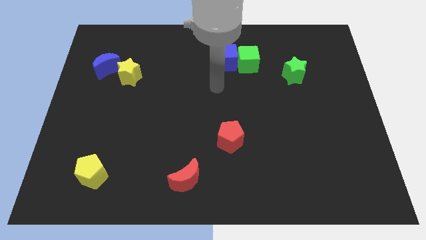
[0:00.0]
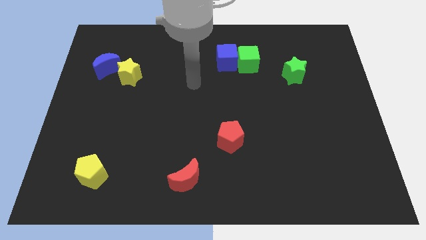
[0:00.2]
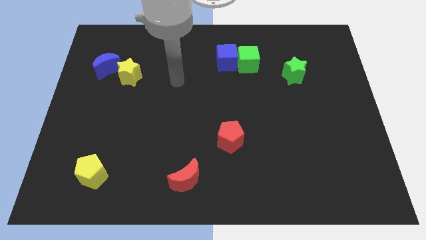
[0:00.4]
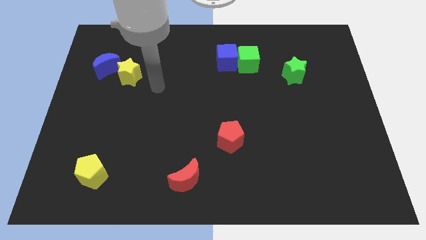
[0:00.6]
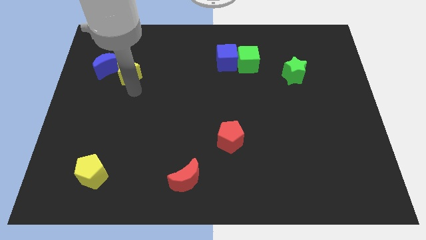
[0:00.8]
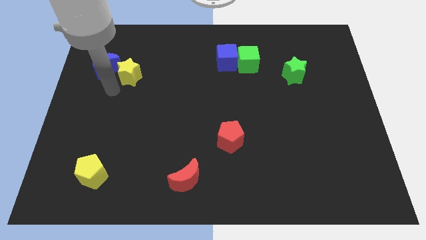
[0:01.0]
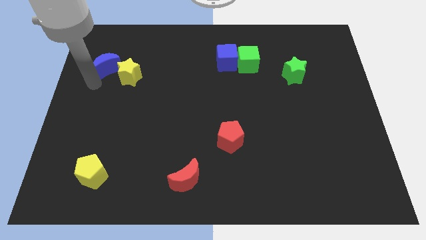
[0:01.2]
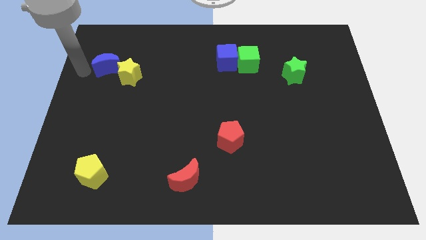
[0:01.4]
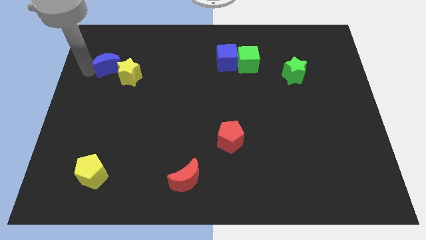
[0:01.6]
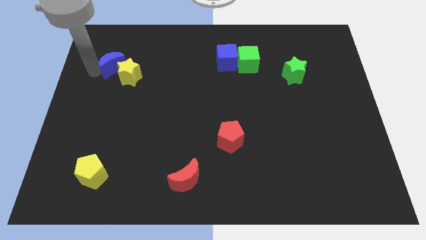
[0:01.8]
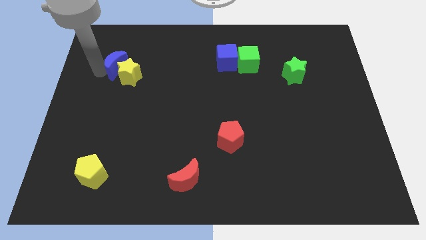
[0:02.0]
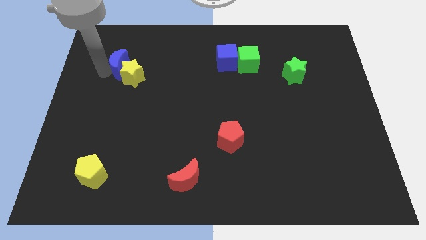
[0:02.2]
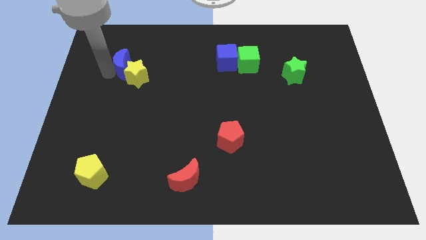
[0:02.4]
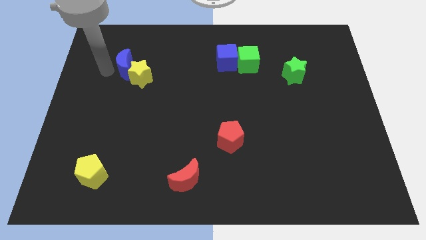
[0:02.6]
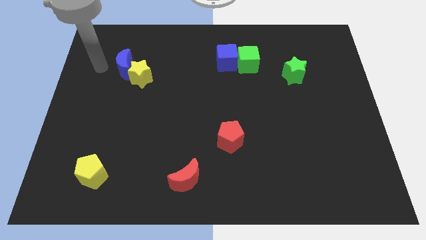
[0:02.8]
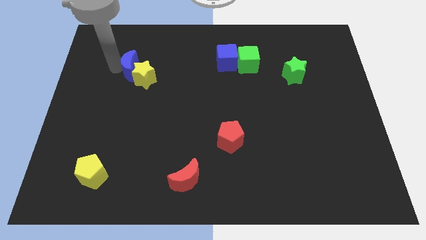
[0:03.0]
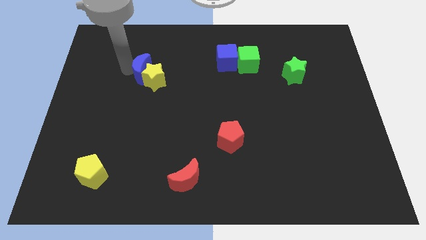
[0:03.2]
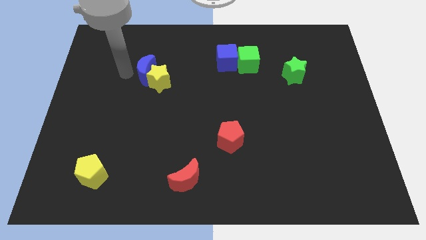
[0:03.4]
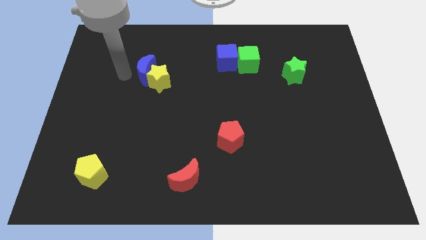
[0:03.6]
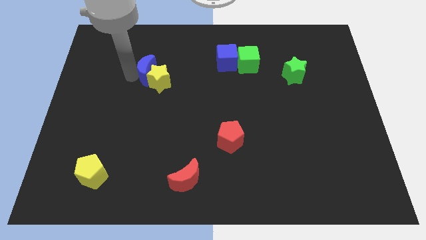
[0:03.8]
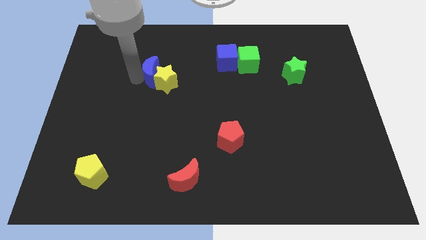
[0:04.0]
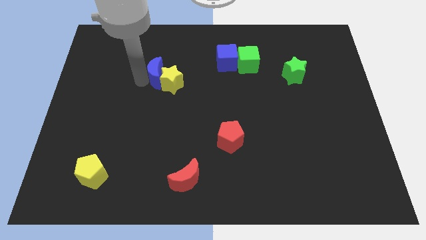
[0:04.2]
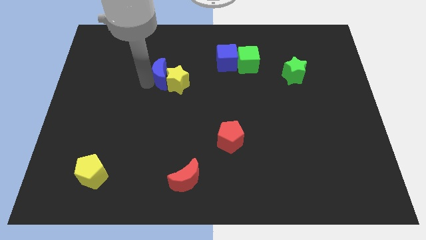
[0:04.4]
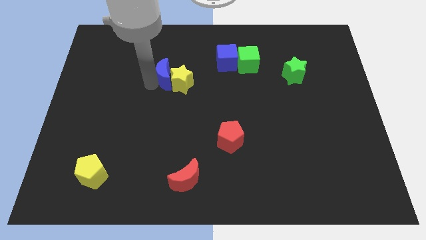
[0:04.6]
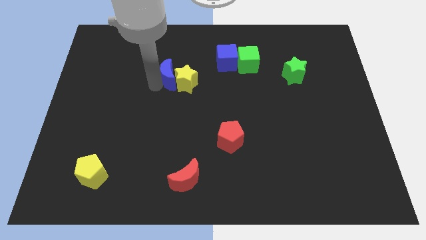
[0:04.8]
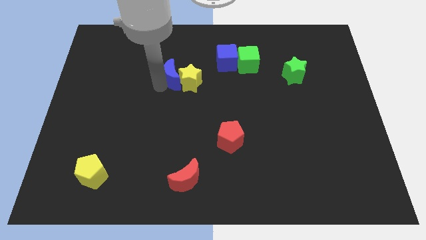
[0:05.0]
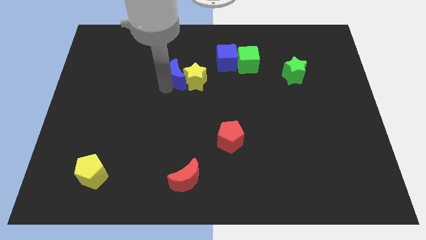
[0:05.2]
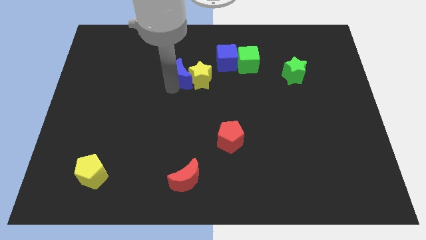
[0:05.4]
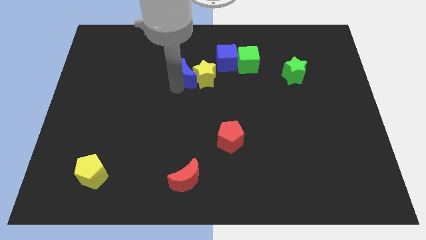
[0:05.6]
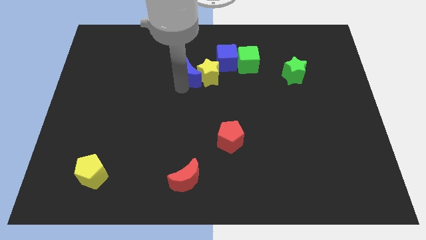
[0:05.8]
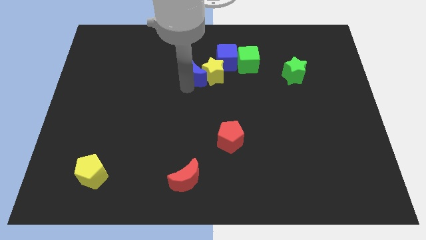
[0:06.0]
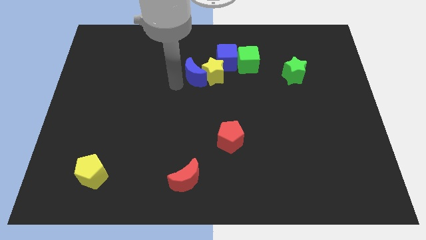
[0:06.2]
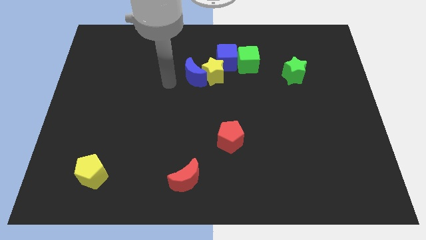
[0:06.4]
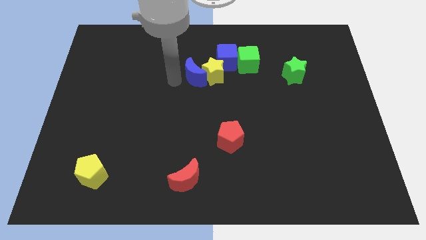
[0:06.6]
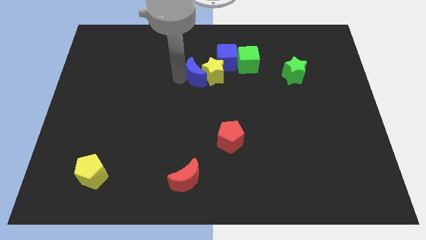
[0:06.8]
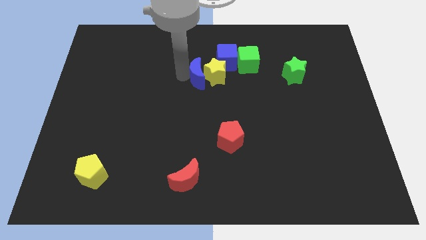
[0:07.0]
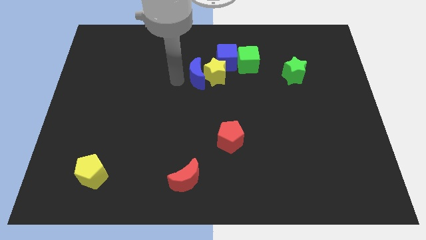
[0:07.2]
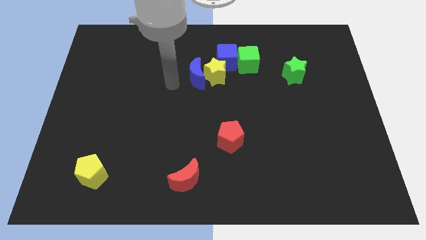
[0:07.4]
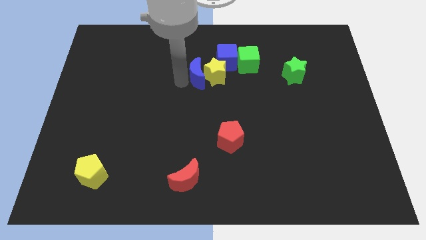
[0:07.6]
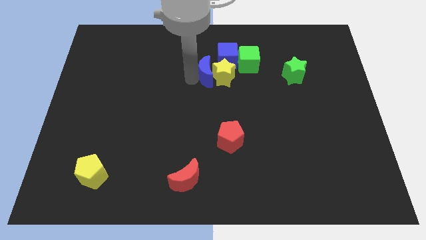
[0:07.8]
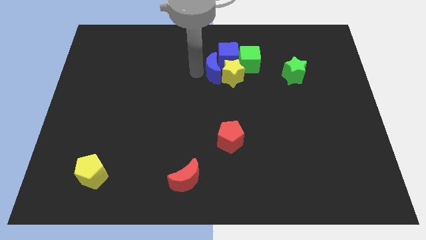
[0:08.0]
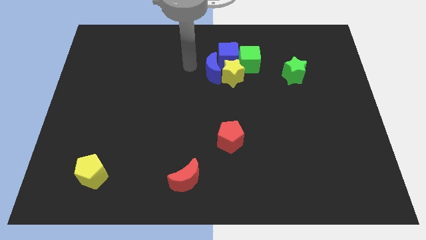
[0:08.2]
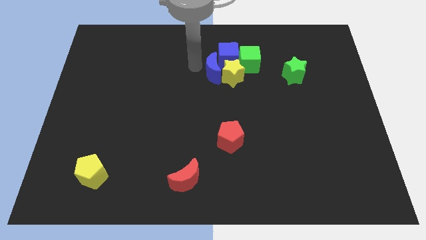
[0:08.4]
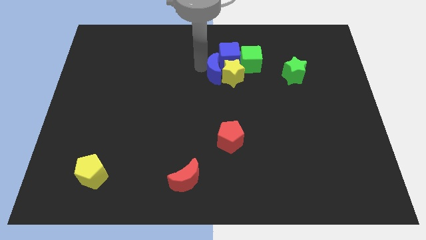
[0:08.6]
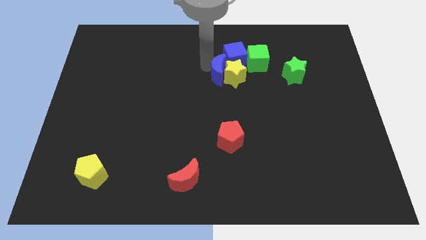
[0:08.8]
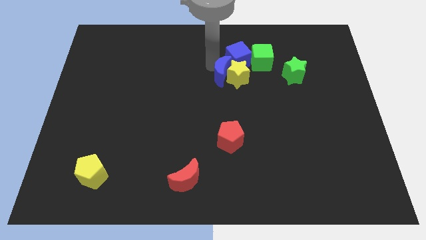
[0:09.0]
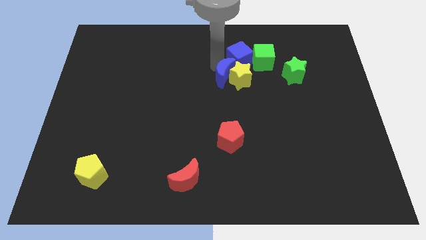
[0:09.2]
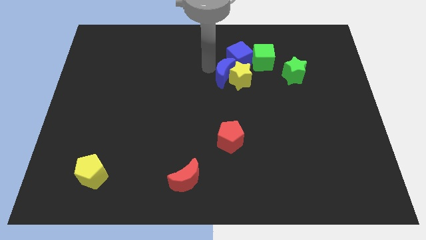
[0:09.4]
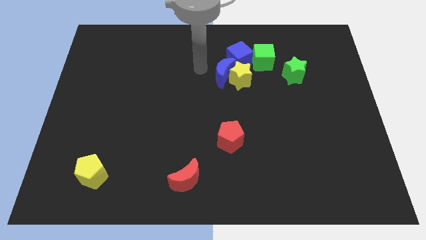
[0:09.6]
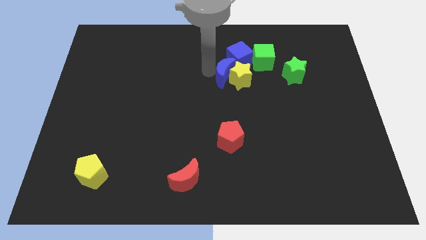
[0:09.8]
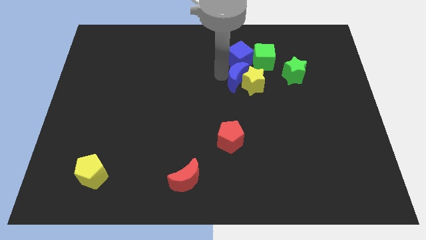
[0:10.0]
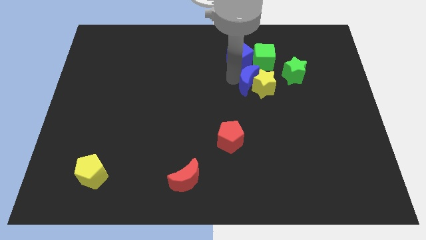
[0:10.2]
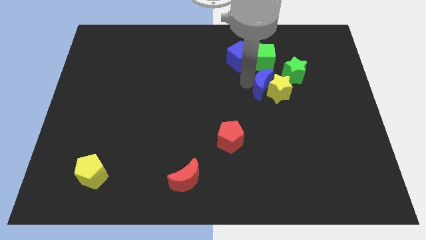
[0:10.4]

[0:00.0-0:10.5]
put the blue moon to the bottom left side of the green star

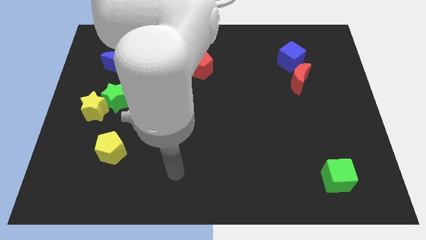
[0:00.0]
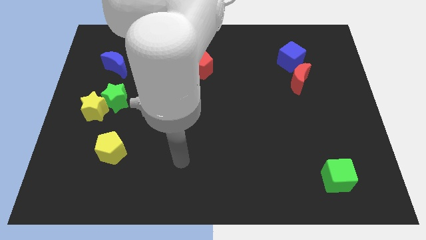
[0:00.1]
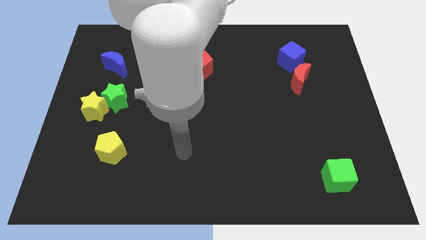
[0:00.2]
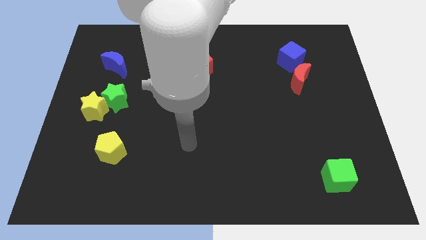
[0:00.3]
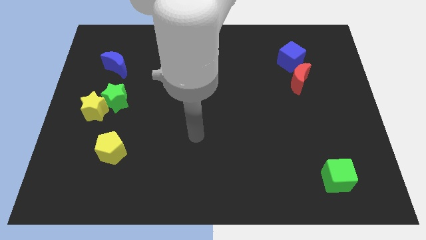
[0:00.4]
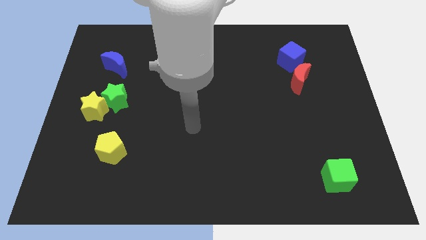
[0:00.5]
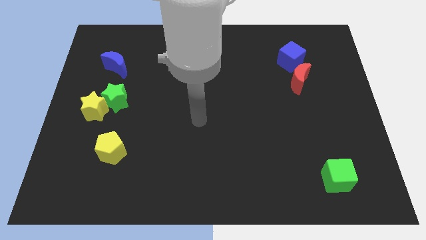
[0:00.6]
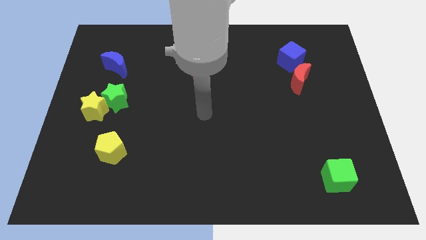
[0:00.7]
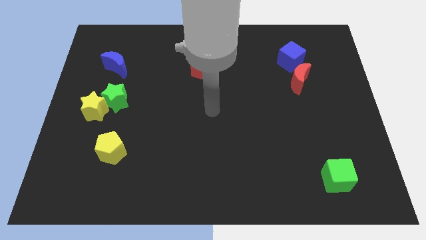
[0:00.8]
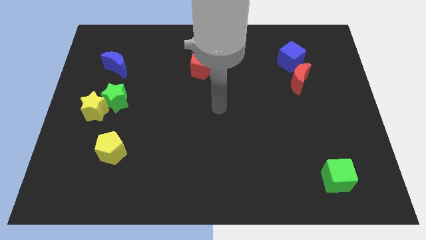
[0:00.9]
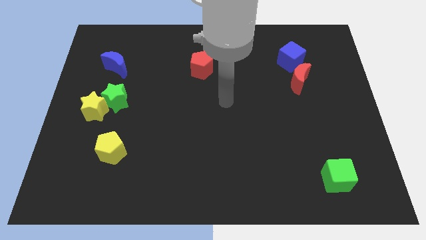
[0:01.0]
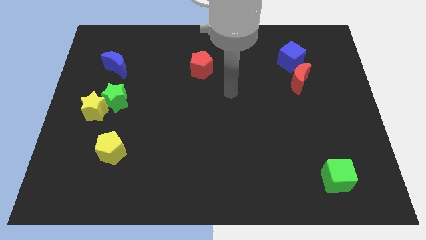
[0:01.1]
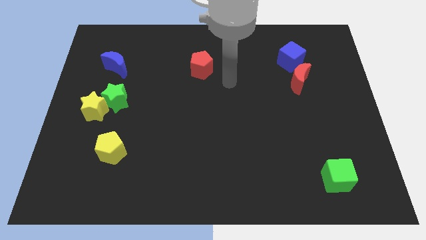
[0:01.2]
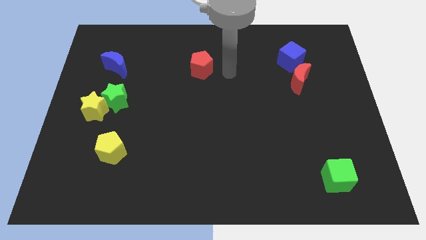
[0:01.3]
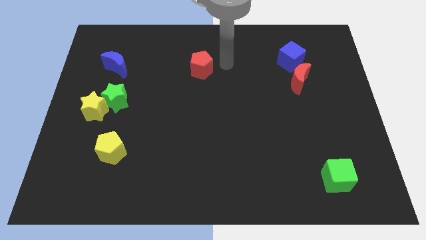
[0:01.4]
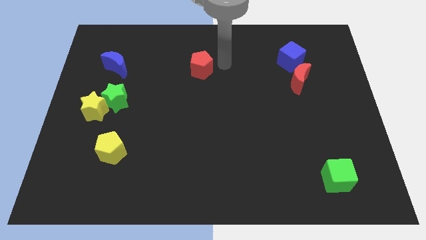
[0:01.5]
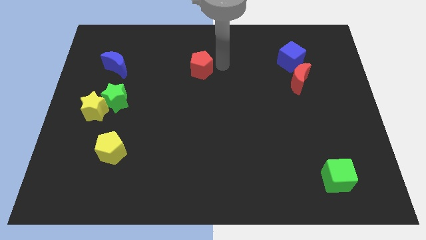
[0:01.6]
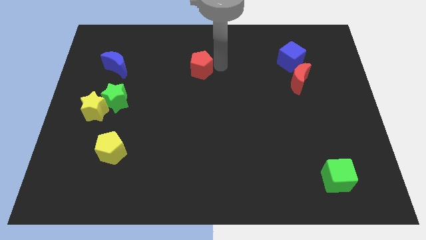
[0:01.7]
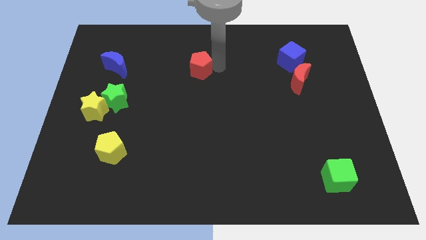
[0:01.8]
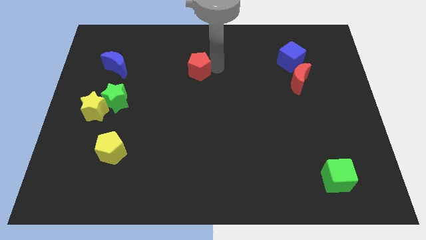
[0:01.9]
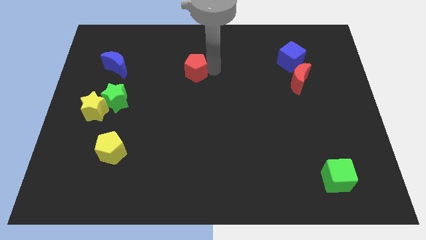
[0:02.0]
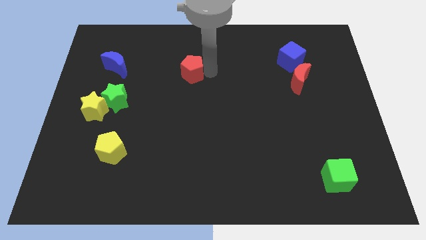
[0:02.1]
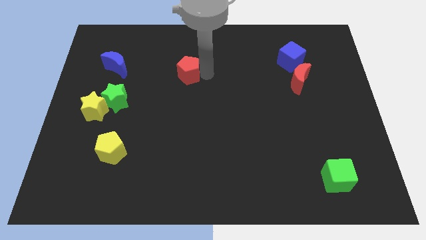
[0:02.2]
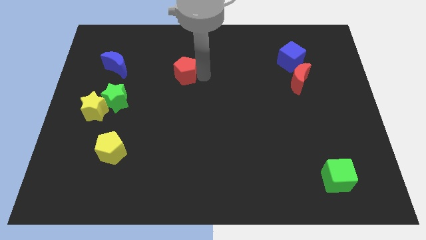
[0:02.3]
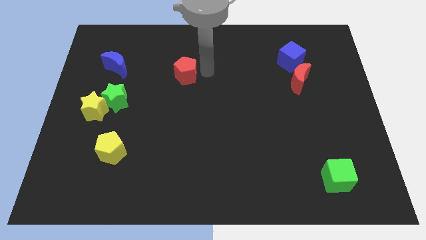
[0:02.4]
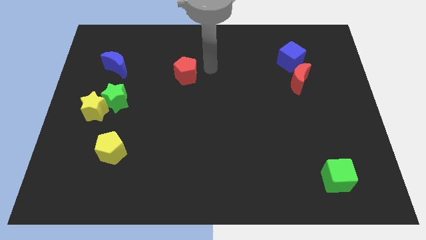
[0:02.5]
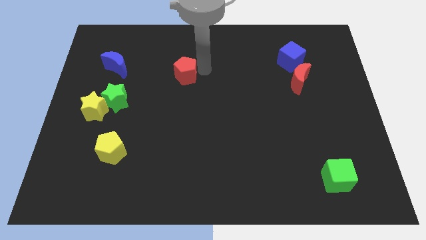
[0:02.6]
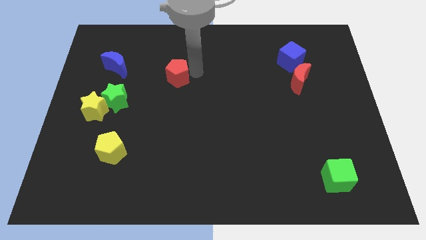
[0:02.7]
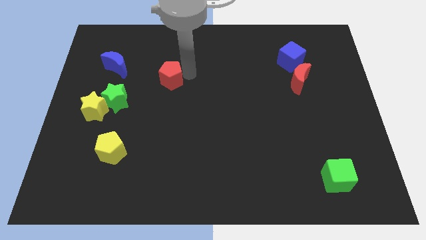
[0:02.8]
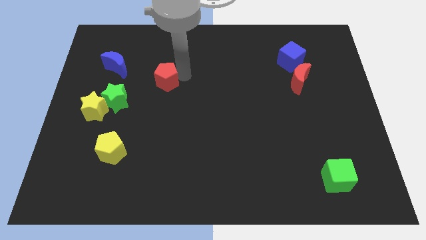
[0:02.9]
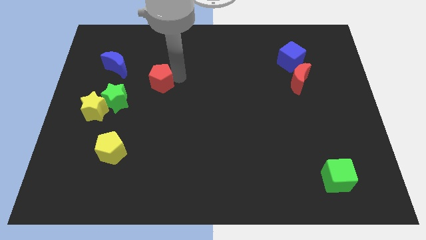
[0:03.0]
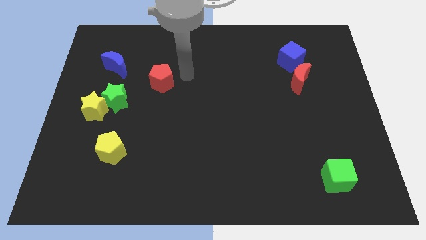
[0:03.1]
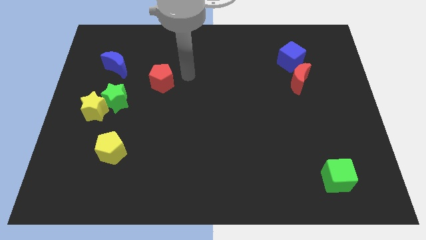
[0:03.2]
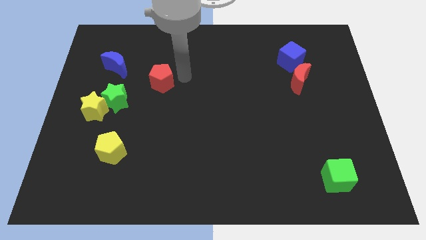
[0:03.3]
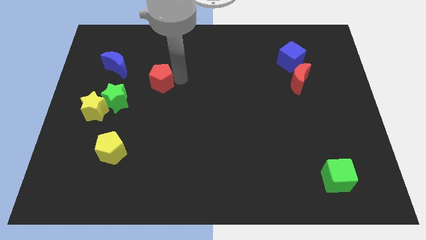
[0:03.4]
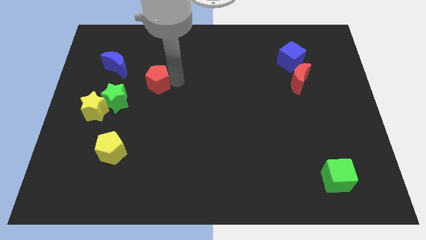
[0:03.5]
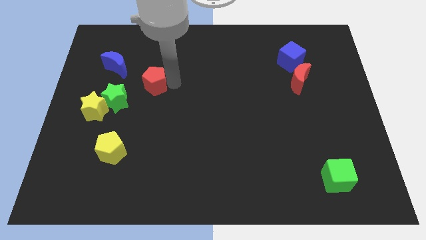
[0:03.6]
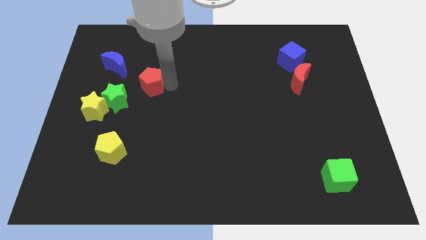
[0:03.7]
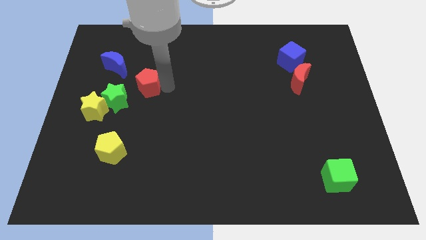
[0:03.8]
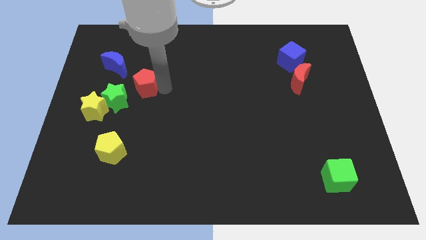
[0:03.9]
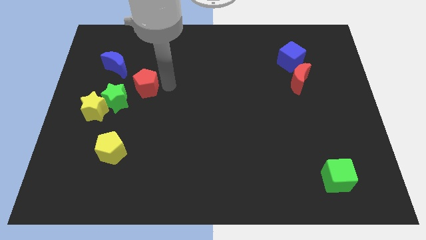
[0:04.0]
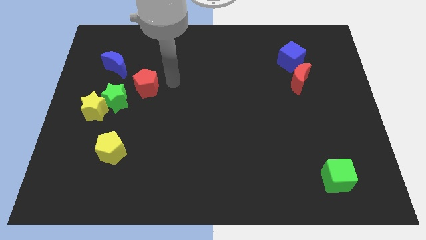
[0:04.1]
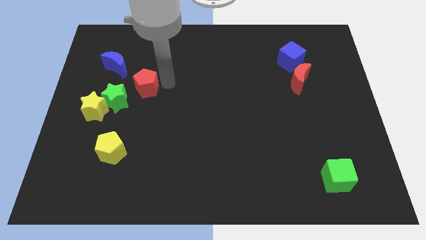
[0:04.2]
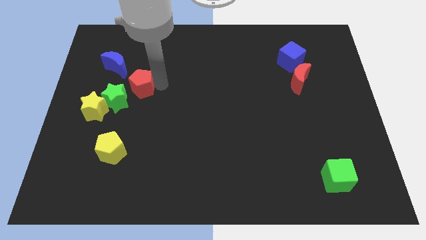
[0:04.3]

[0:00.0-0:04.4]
push the red pentagon to the top right of the yellow star
